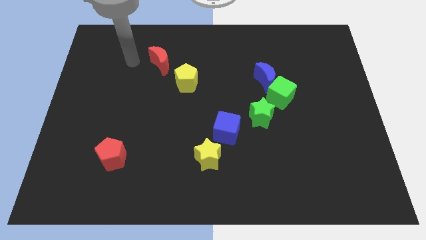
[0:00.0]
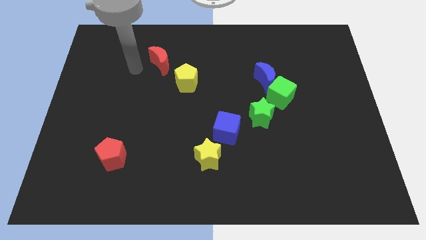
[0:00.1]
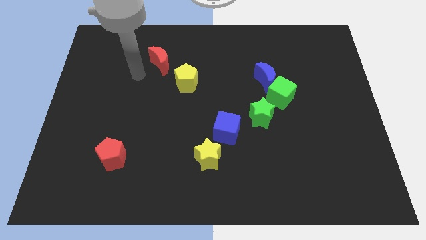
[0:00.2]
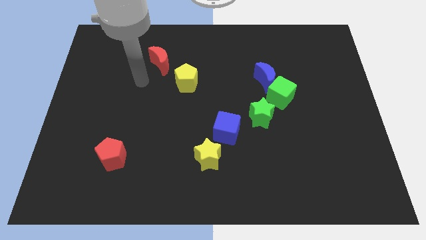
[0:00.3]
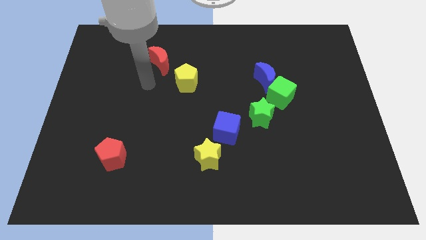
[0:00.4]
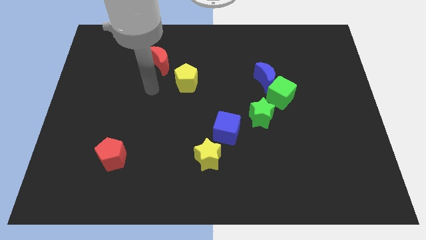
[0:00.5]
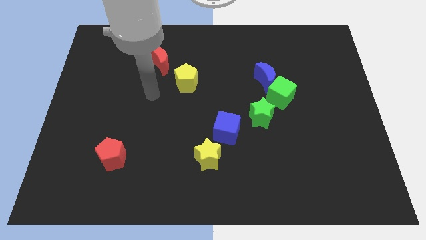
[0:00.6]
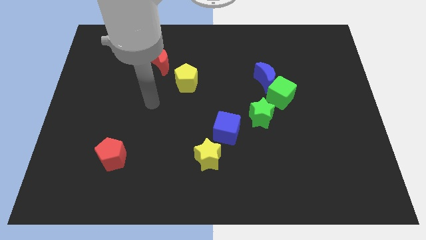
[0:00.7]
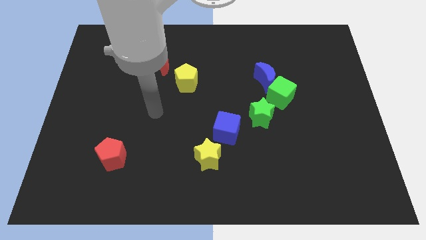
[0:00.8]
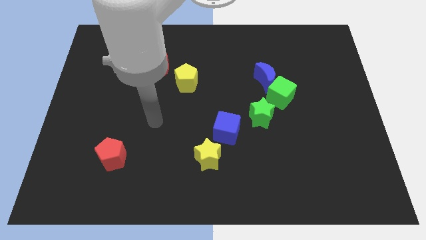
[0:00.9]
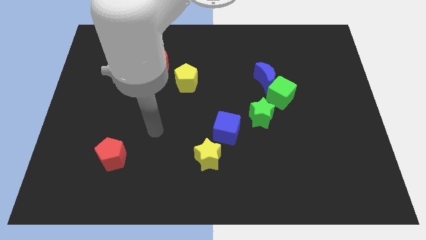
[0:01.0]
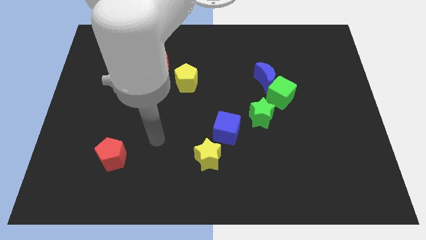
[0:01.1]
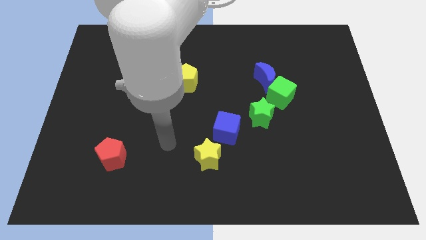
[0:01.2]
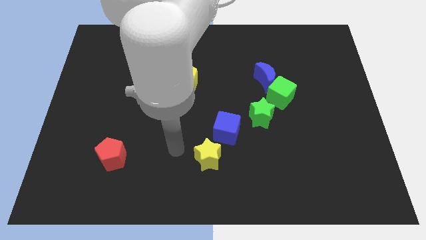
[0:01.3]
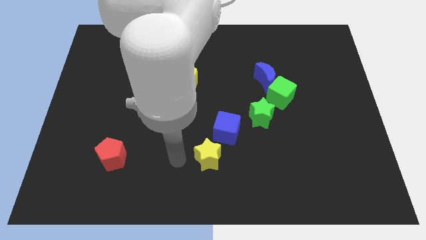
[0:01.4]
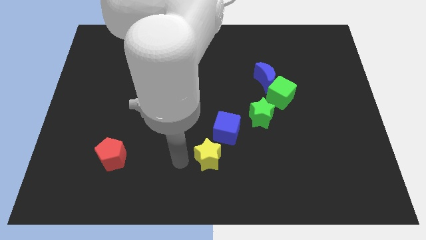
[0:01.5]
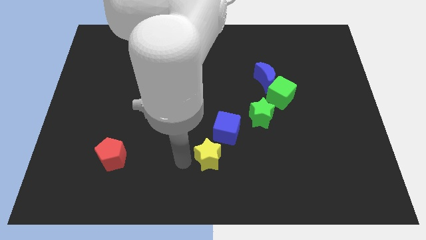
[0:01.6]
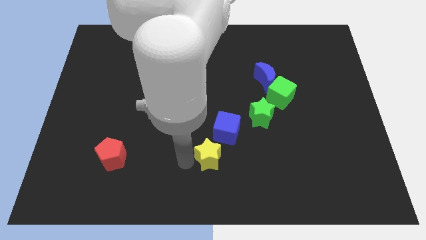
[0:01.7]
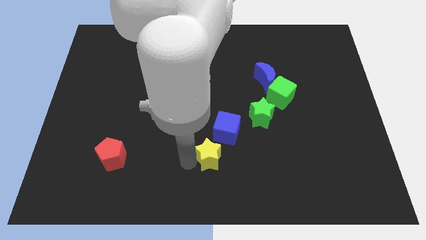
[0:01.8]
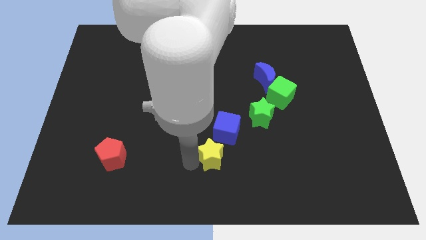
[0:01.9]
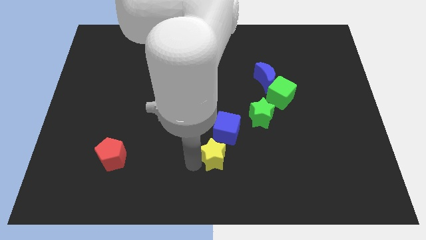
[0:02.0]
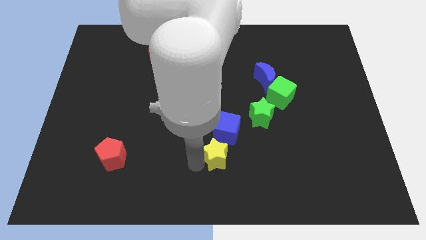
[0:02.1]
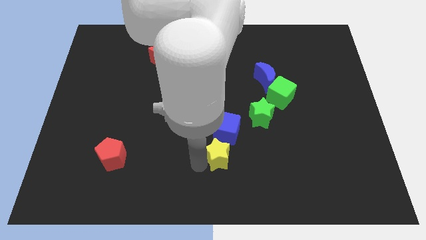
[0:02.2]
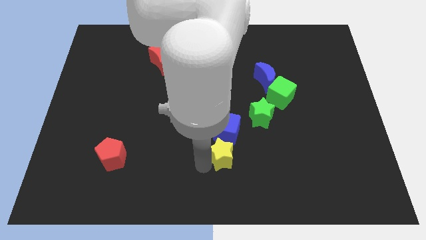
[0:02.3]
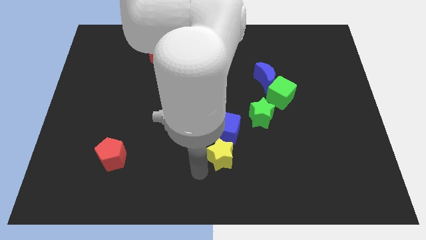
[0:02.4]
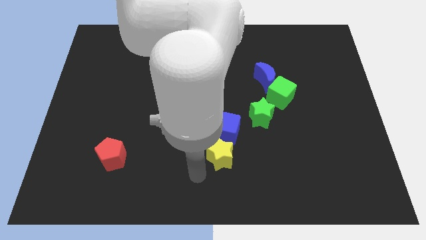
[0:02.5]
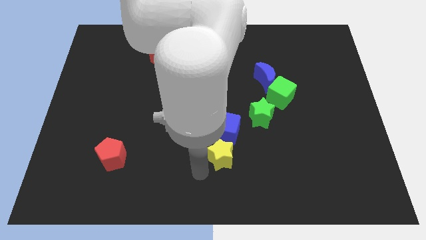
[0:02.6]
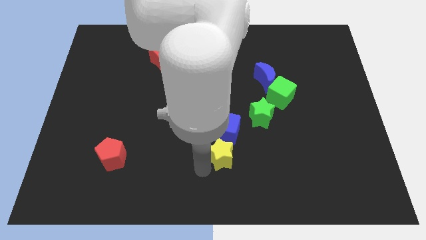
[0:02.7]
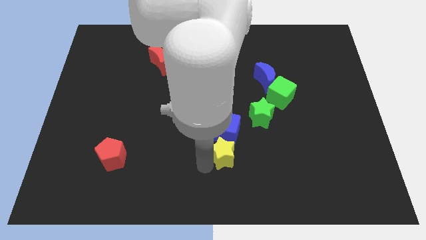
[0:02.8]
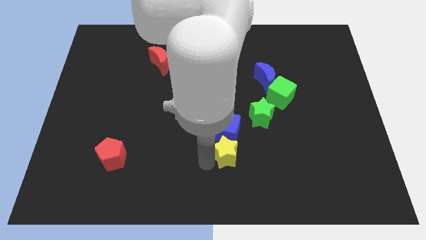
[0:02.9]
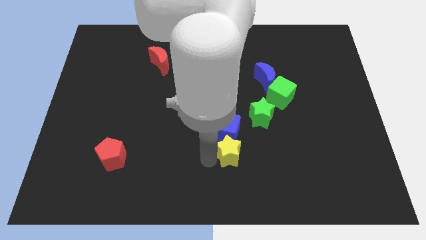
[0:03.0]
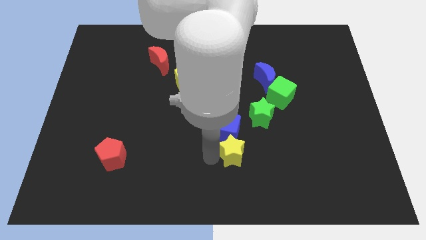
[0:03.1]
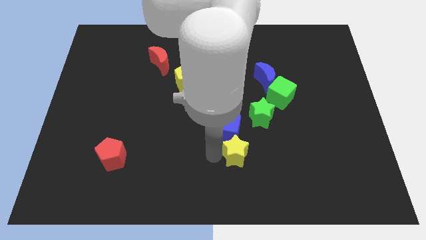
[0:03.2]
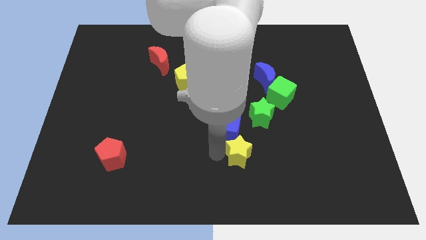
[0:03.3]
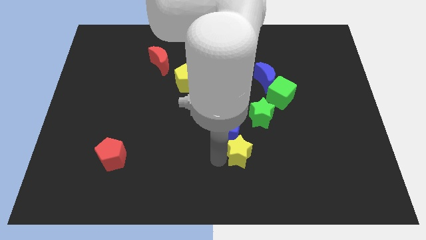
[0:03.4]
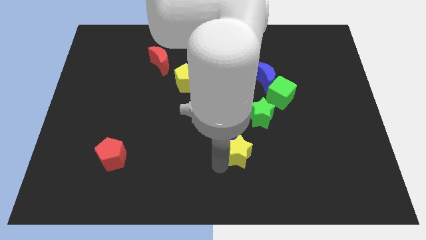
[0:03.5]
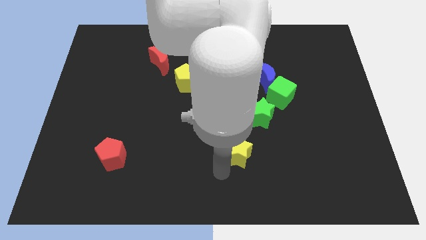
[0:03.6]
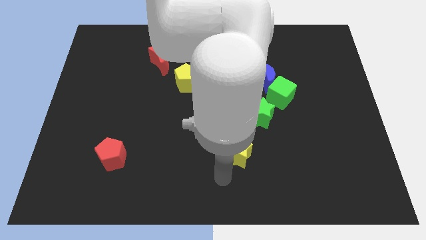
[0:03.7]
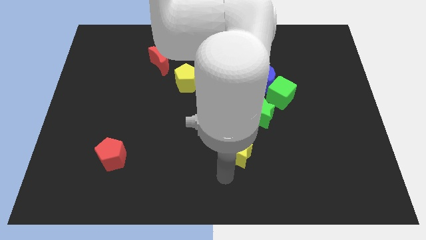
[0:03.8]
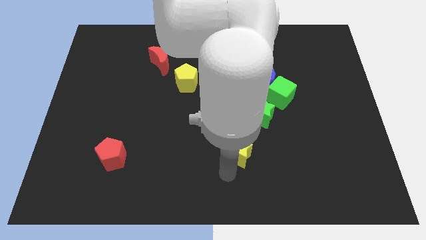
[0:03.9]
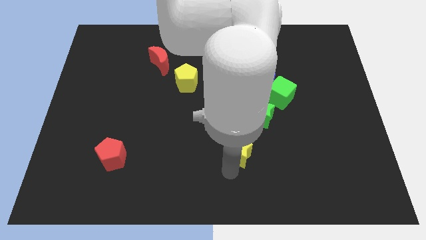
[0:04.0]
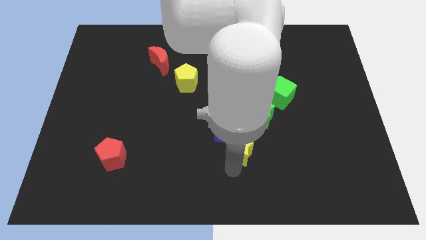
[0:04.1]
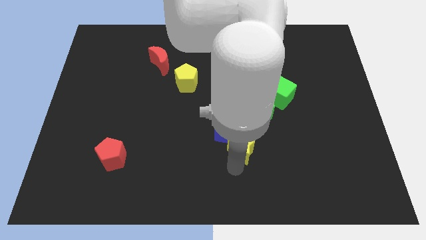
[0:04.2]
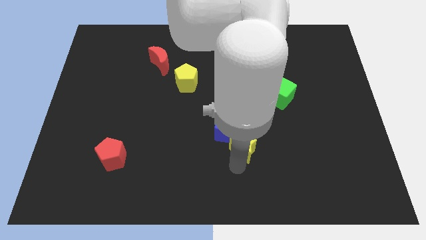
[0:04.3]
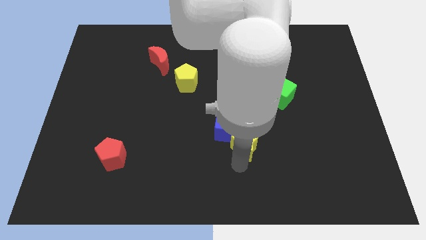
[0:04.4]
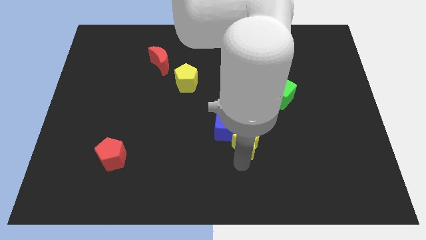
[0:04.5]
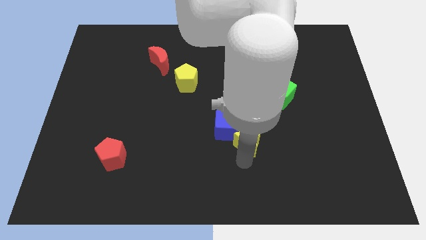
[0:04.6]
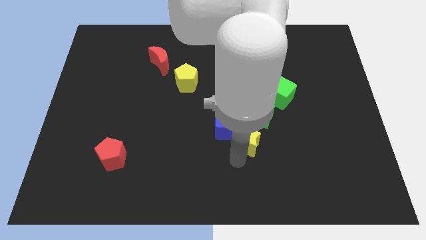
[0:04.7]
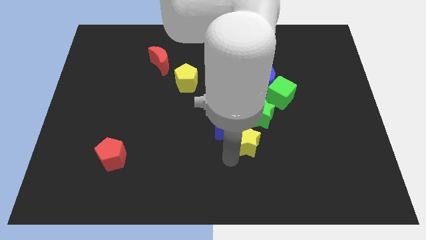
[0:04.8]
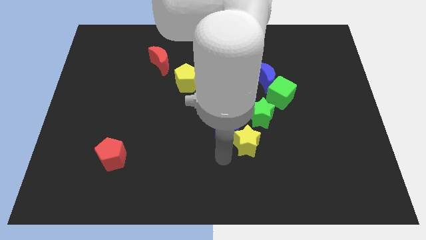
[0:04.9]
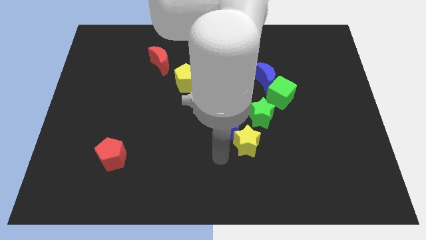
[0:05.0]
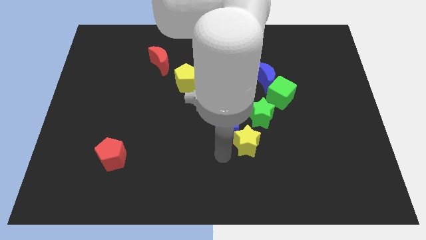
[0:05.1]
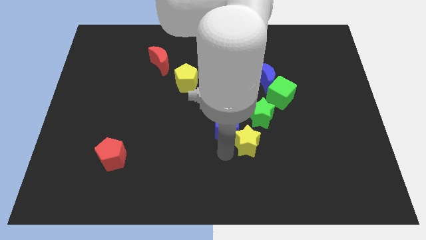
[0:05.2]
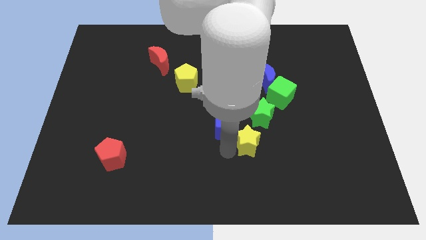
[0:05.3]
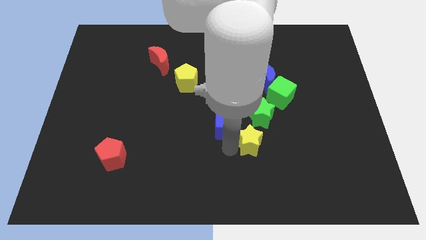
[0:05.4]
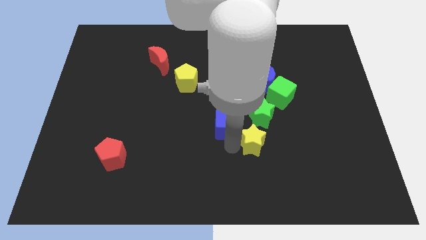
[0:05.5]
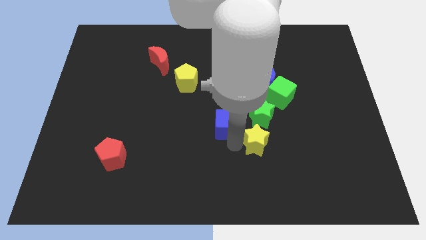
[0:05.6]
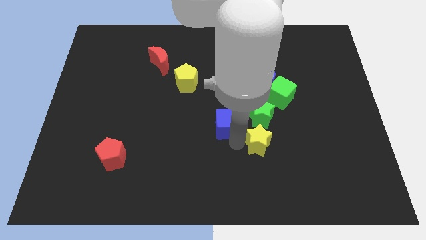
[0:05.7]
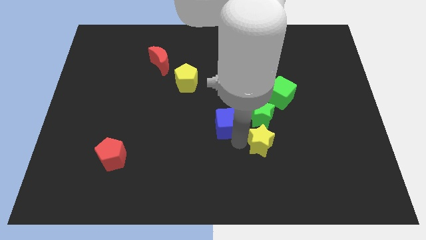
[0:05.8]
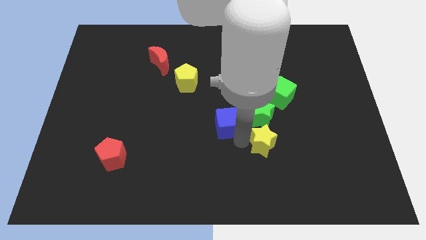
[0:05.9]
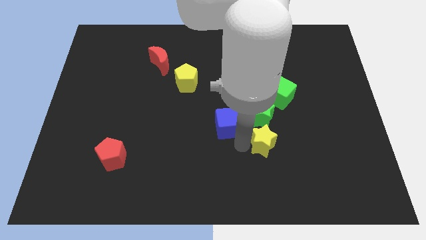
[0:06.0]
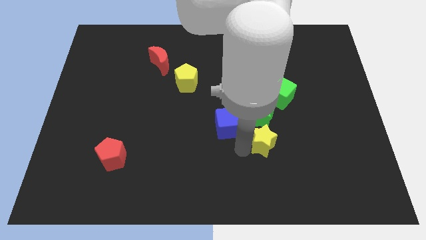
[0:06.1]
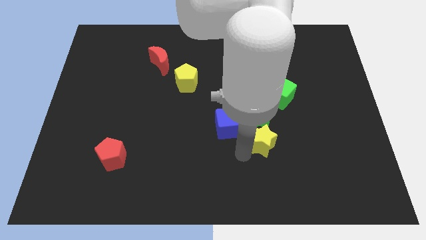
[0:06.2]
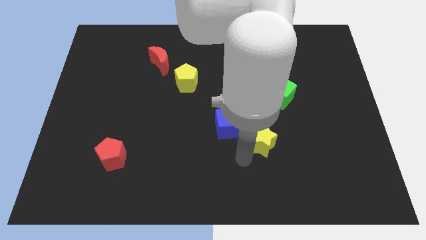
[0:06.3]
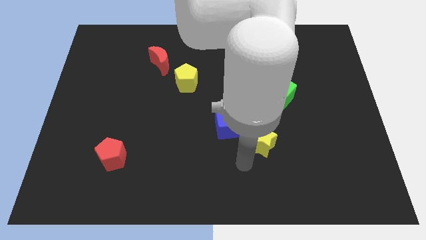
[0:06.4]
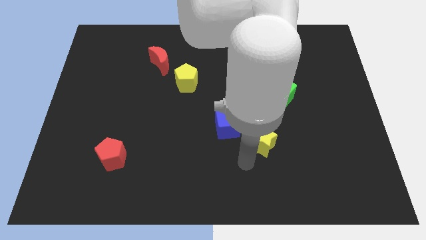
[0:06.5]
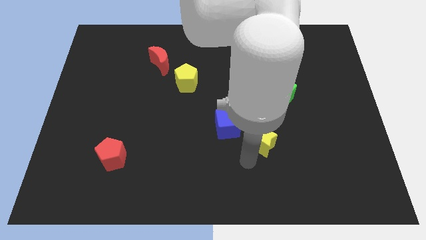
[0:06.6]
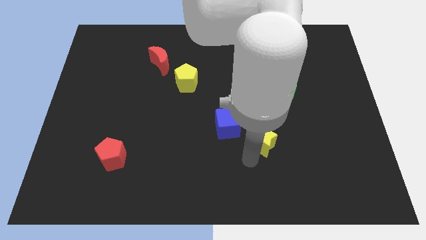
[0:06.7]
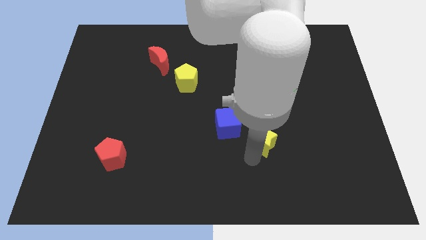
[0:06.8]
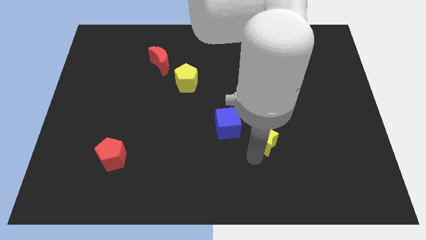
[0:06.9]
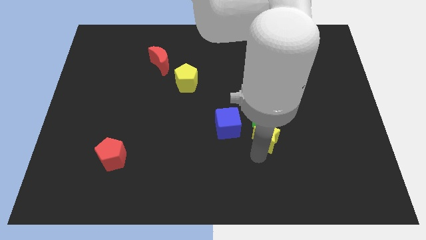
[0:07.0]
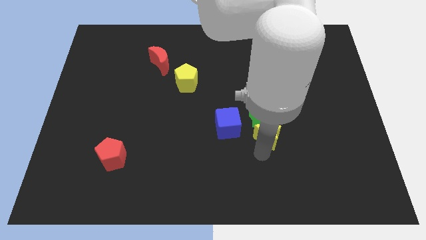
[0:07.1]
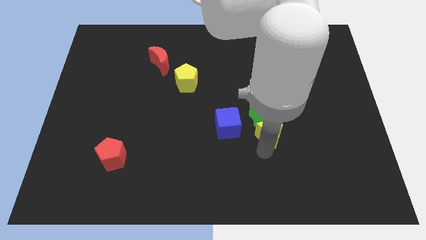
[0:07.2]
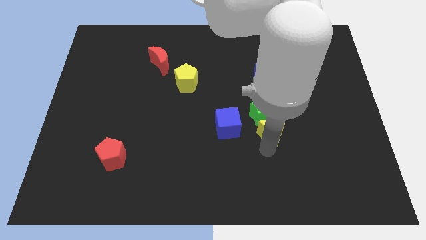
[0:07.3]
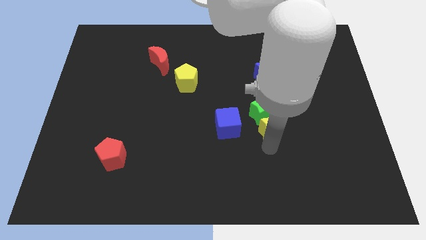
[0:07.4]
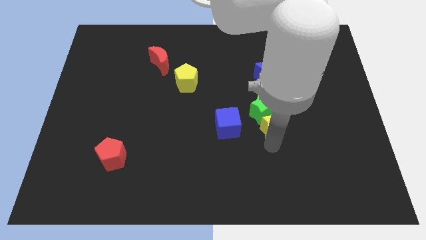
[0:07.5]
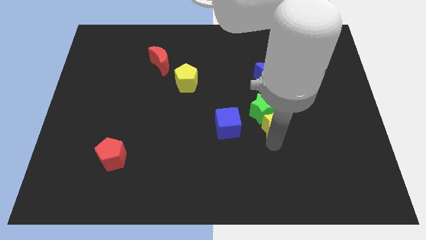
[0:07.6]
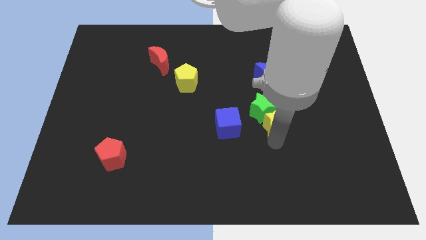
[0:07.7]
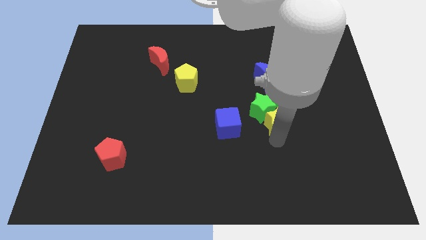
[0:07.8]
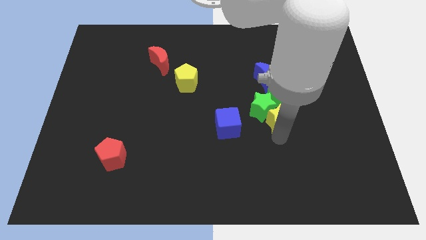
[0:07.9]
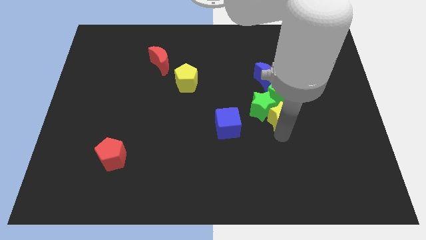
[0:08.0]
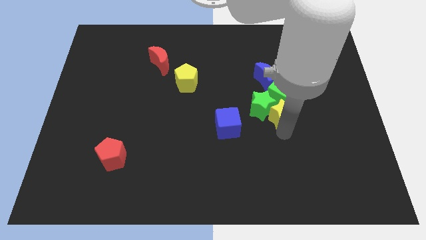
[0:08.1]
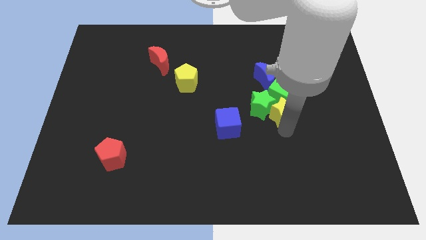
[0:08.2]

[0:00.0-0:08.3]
move the yellow star to the green cube

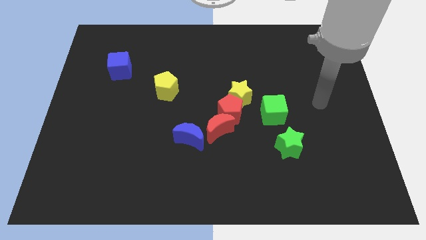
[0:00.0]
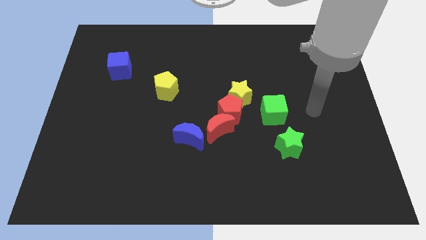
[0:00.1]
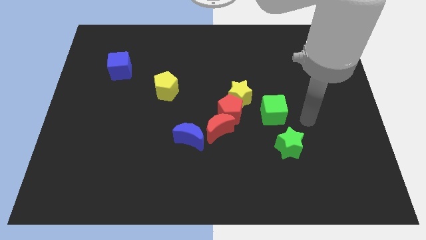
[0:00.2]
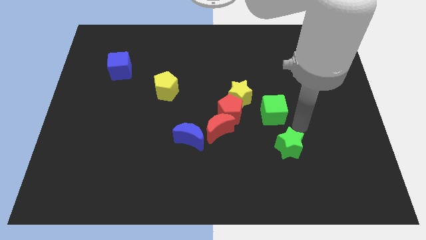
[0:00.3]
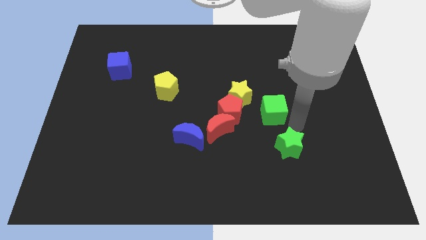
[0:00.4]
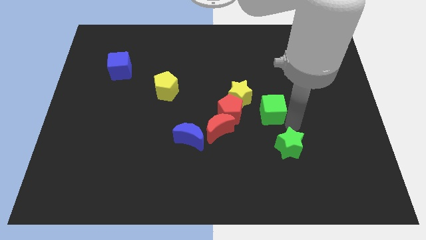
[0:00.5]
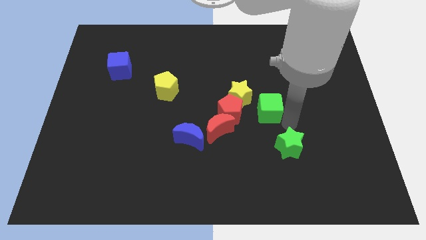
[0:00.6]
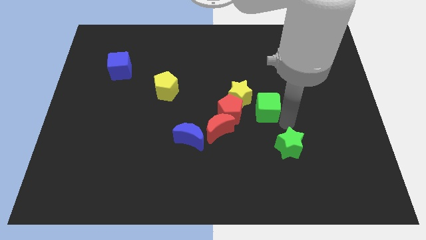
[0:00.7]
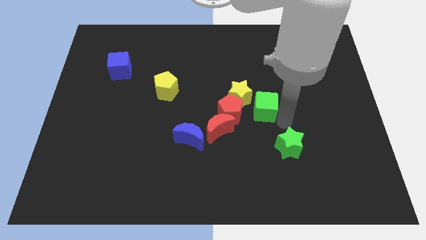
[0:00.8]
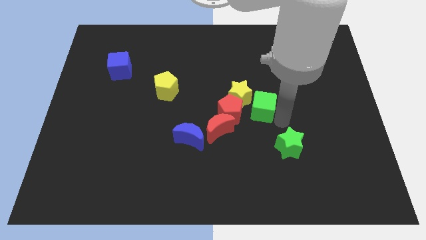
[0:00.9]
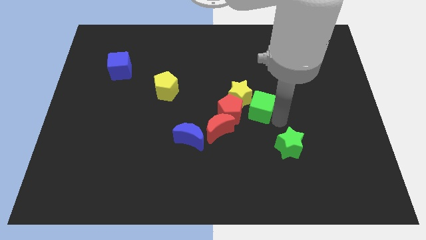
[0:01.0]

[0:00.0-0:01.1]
move the green cube close to the yellow star
